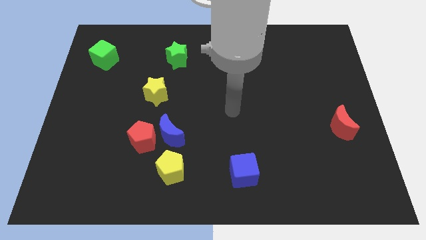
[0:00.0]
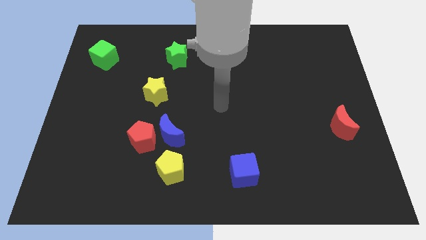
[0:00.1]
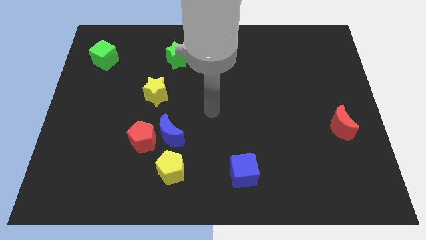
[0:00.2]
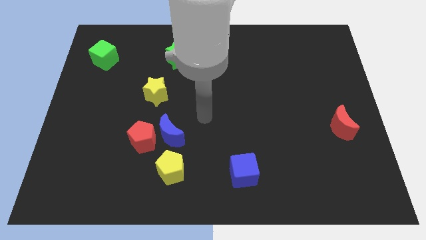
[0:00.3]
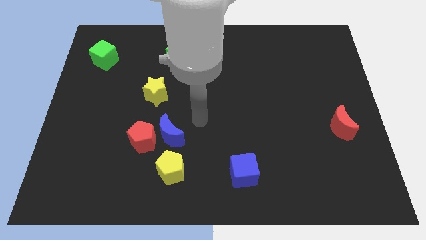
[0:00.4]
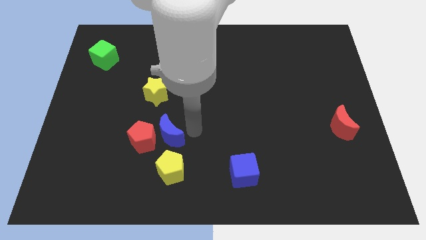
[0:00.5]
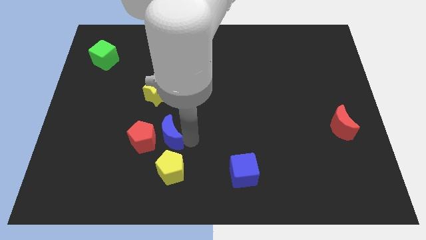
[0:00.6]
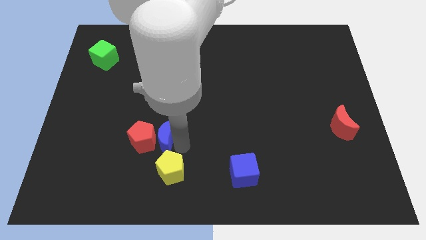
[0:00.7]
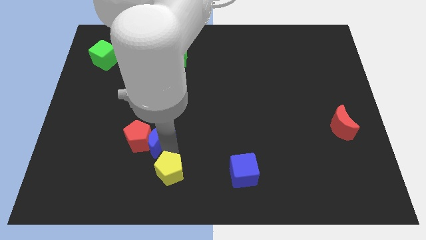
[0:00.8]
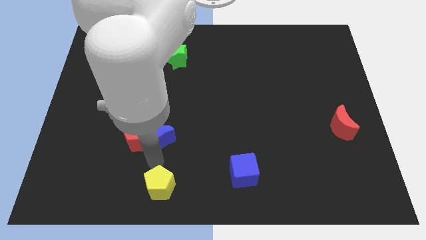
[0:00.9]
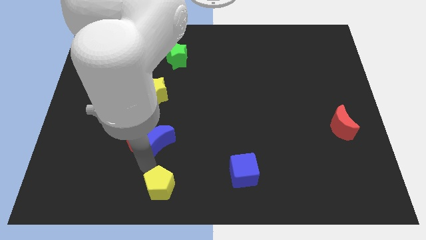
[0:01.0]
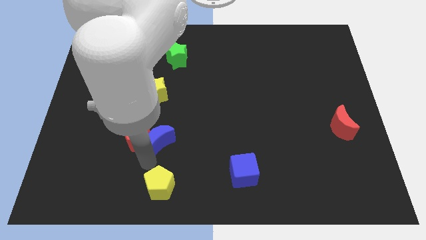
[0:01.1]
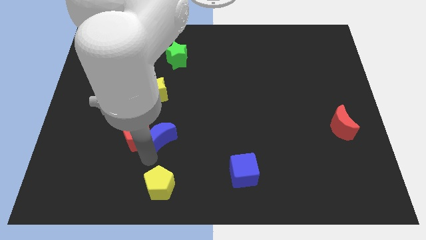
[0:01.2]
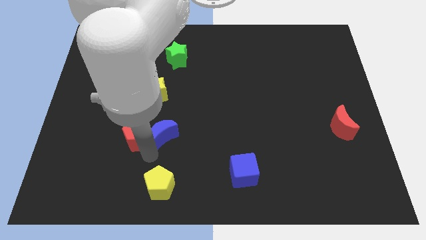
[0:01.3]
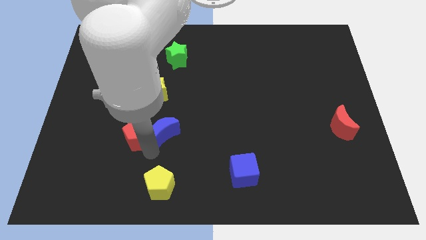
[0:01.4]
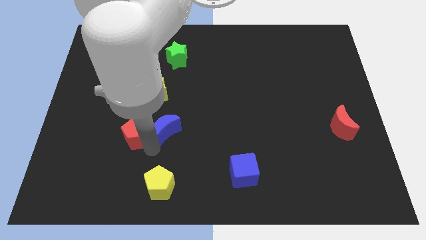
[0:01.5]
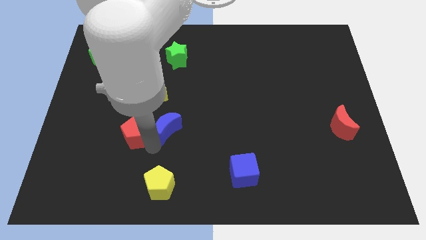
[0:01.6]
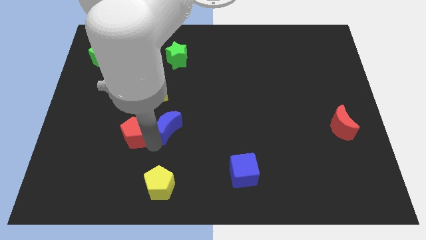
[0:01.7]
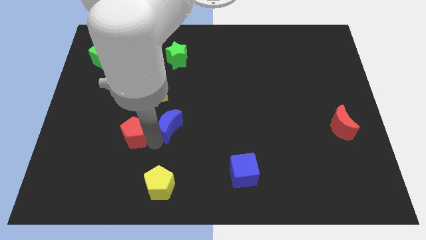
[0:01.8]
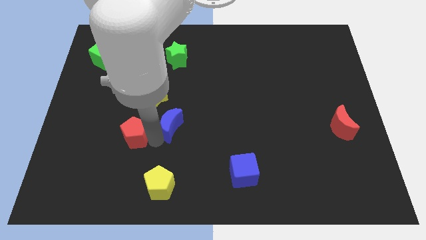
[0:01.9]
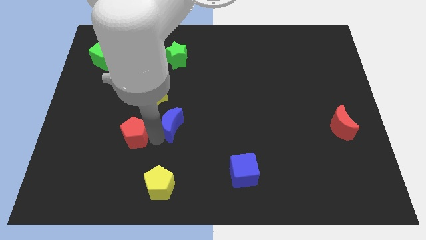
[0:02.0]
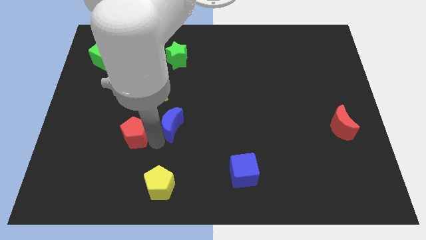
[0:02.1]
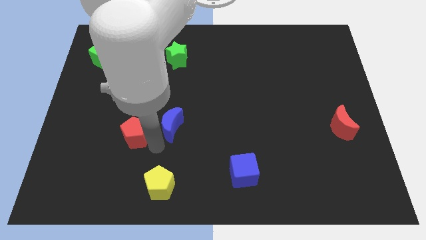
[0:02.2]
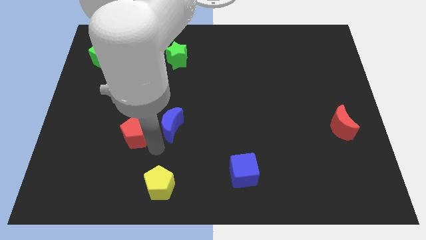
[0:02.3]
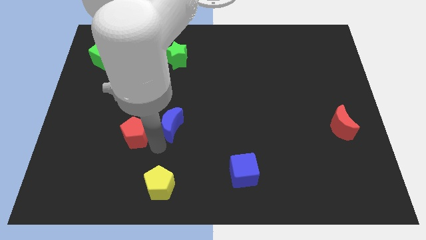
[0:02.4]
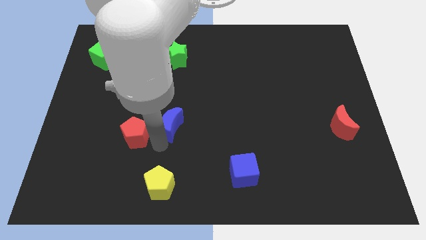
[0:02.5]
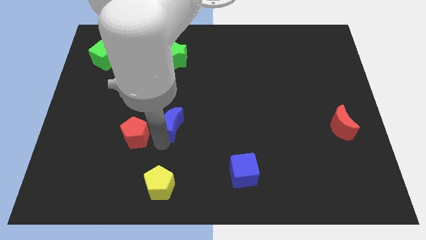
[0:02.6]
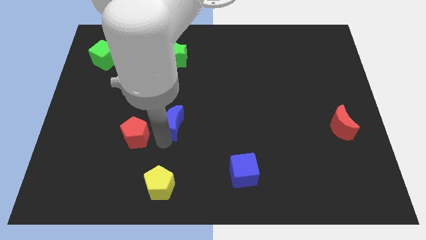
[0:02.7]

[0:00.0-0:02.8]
move the blue moon away from the red pentagon and yellow pentagon

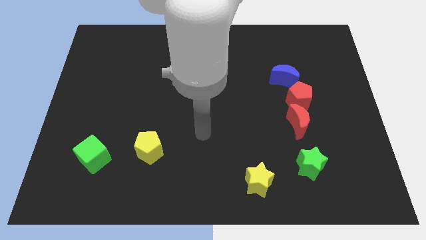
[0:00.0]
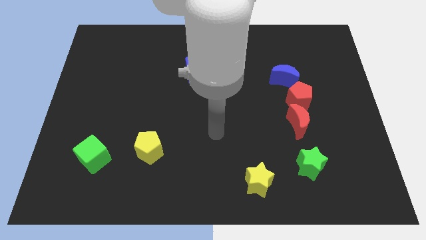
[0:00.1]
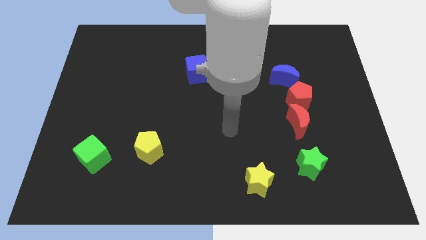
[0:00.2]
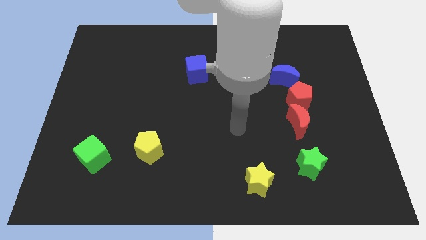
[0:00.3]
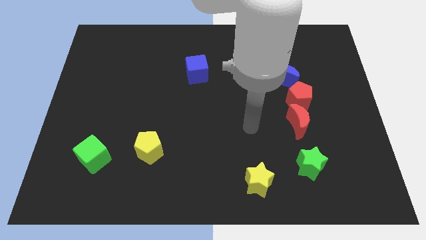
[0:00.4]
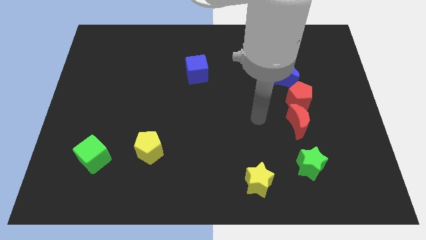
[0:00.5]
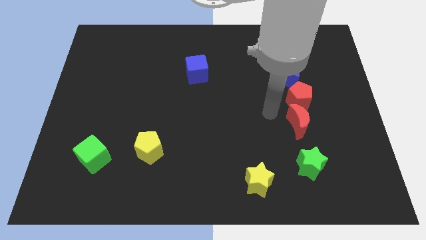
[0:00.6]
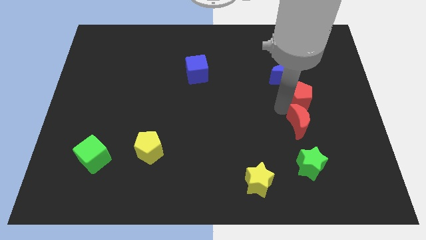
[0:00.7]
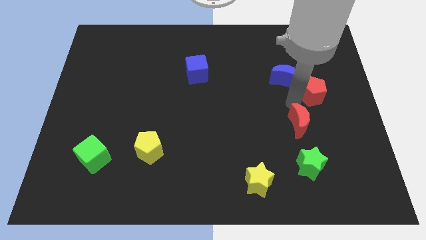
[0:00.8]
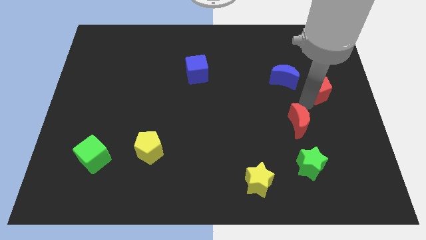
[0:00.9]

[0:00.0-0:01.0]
pull the red moon apart from the red pentagon

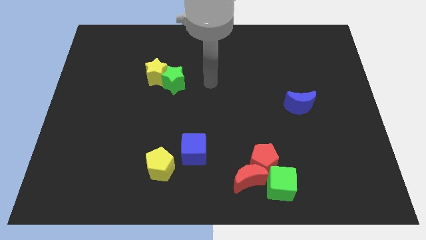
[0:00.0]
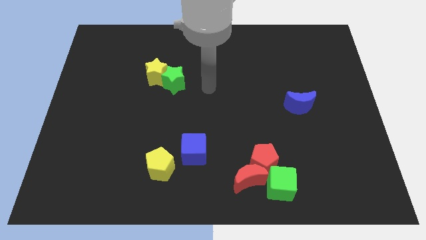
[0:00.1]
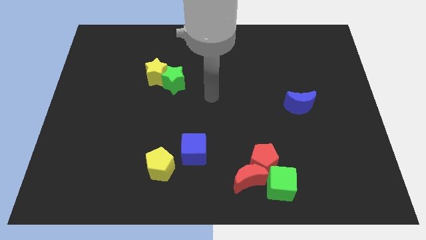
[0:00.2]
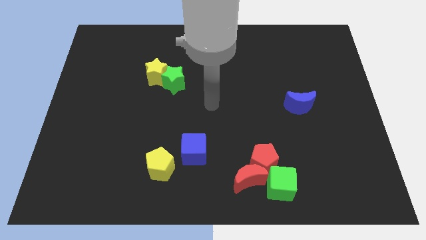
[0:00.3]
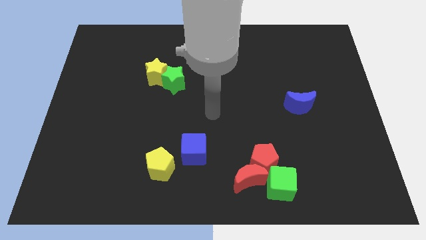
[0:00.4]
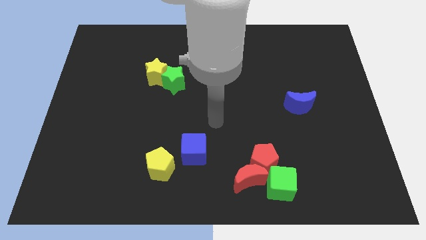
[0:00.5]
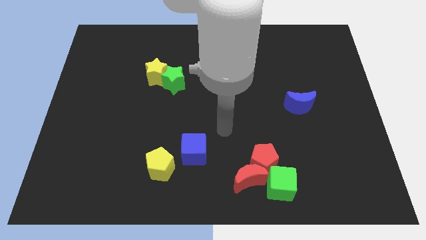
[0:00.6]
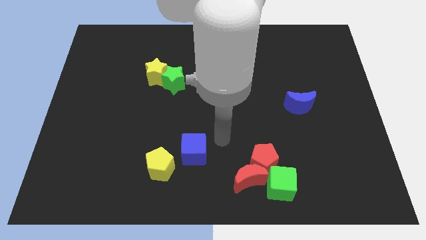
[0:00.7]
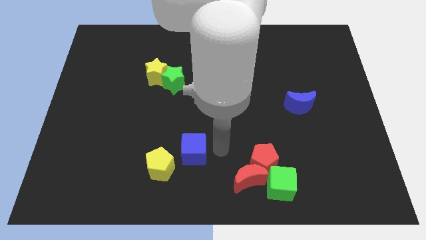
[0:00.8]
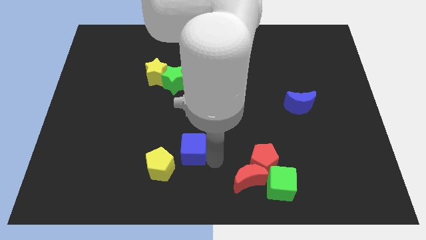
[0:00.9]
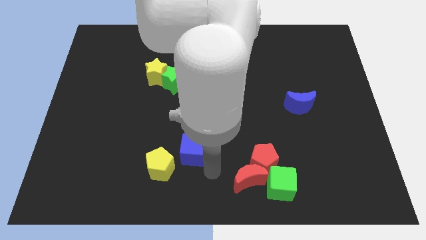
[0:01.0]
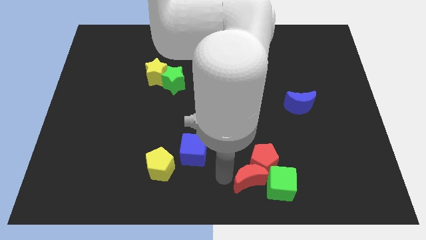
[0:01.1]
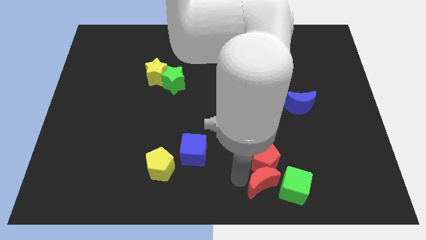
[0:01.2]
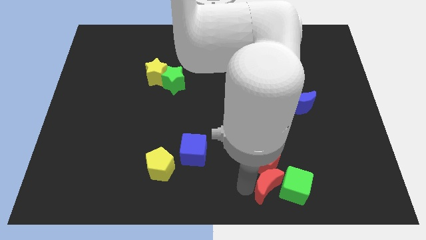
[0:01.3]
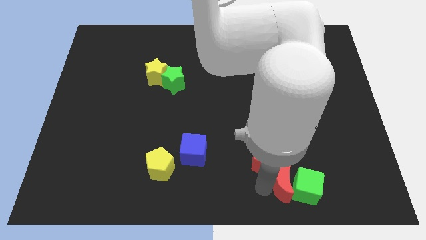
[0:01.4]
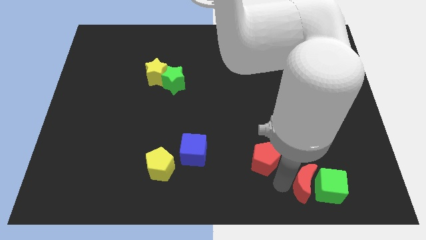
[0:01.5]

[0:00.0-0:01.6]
move the red pentagon away from the red moon and green cube

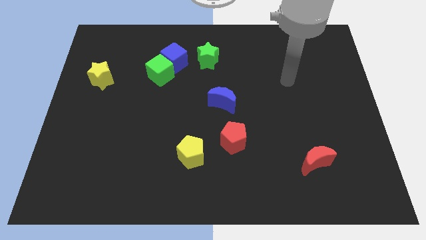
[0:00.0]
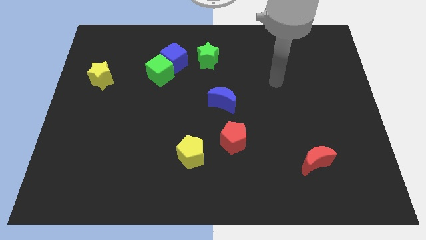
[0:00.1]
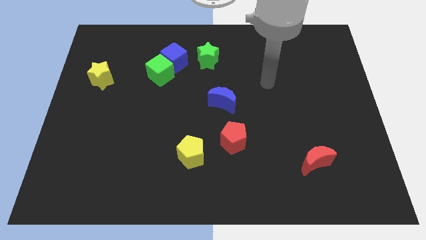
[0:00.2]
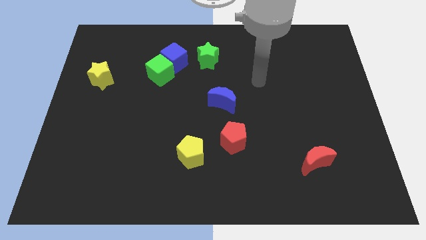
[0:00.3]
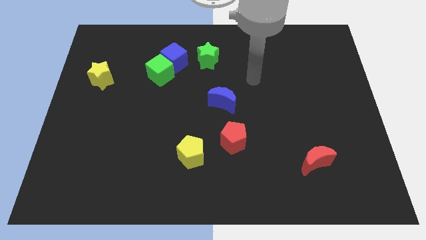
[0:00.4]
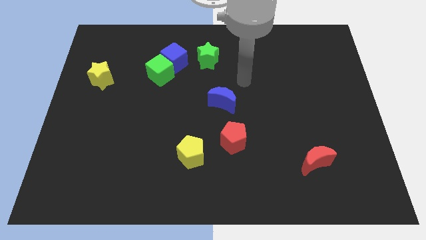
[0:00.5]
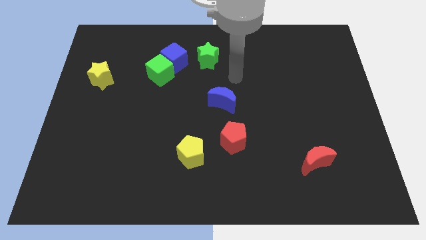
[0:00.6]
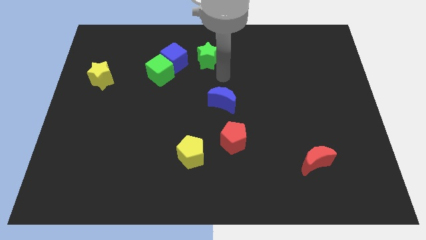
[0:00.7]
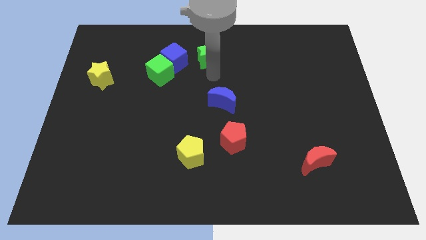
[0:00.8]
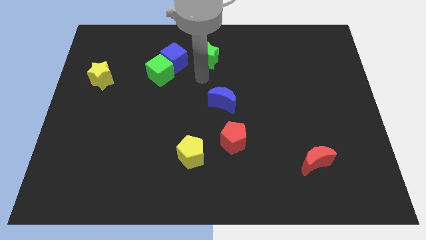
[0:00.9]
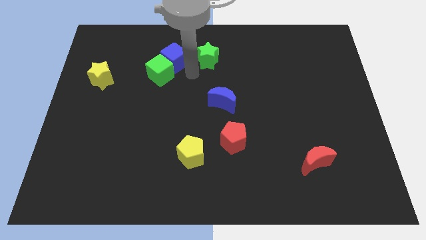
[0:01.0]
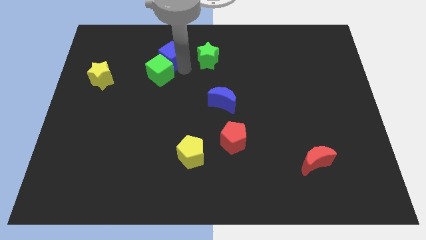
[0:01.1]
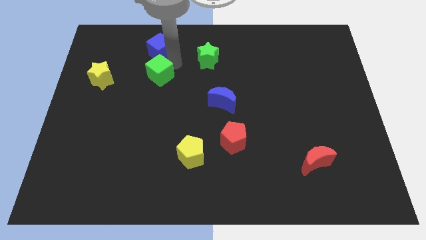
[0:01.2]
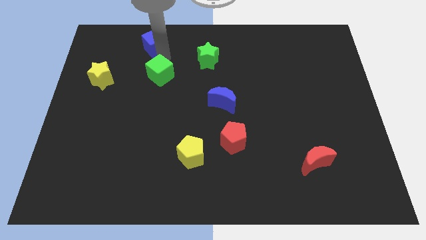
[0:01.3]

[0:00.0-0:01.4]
pull the green cube apart from the blue cube

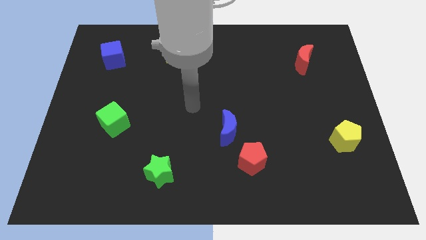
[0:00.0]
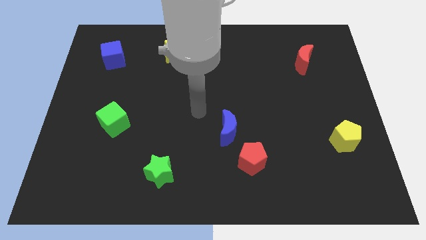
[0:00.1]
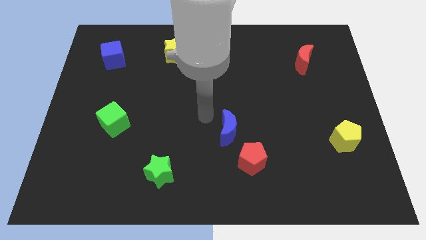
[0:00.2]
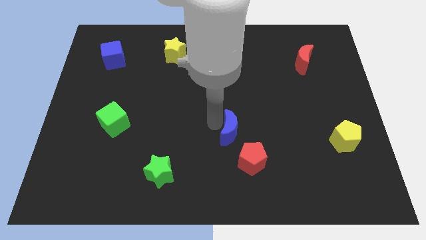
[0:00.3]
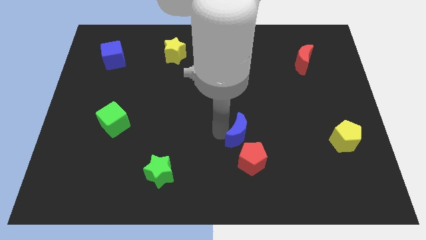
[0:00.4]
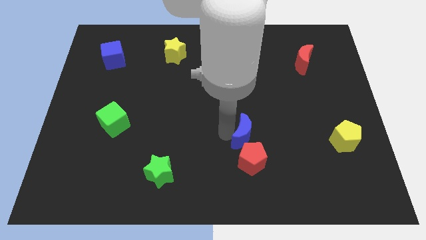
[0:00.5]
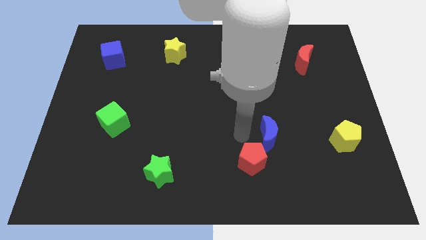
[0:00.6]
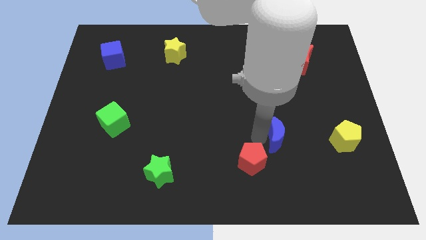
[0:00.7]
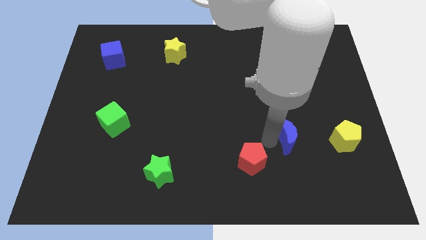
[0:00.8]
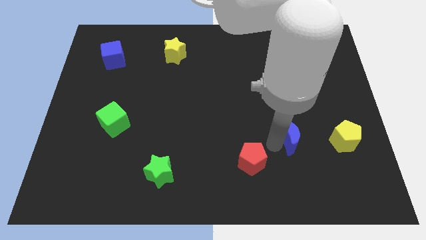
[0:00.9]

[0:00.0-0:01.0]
pull the red pentagon apart from the blue moon

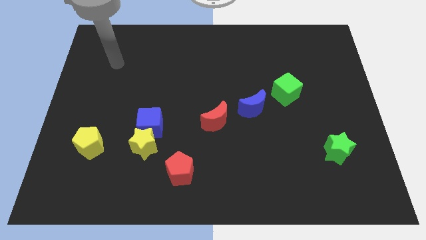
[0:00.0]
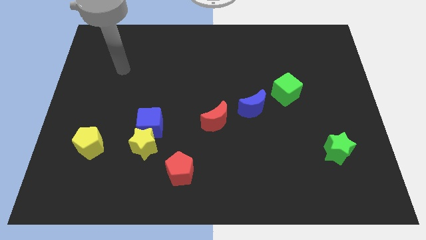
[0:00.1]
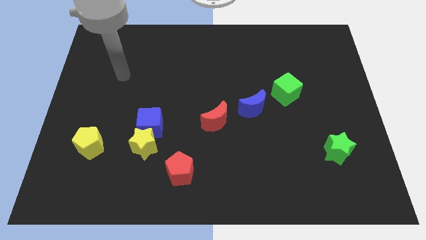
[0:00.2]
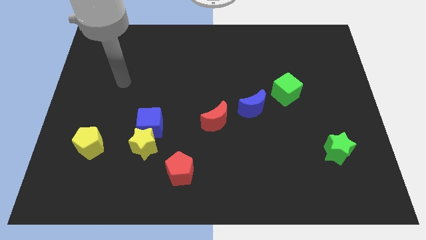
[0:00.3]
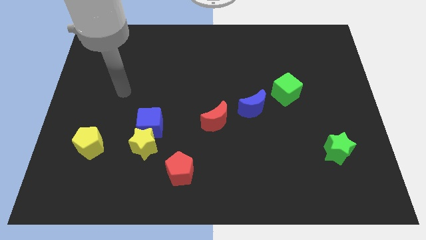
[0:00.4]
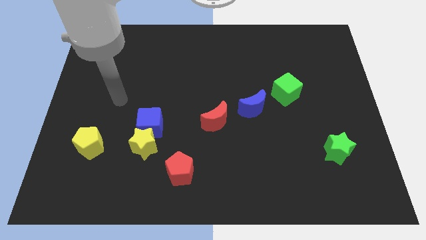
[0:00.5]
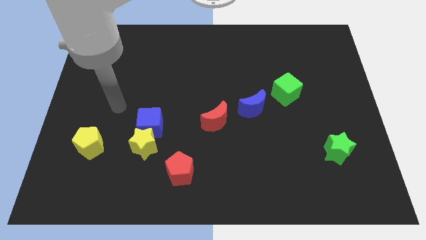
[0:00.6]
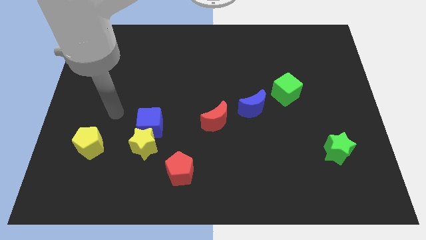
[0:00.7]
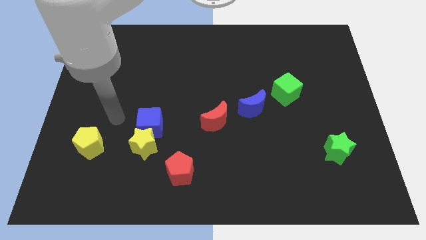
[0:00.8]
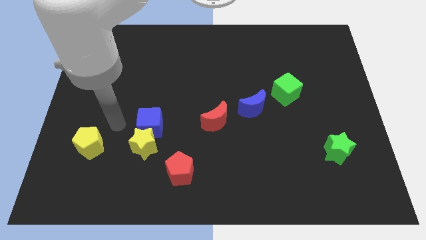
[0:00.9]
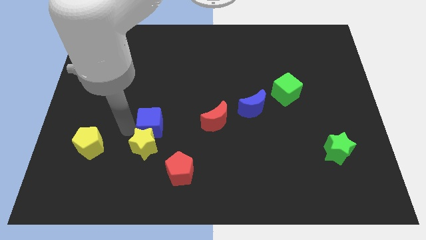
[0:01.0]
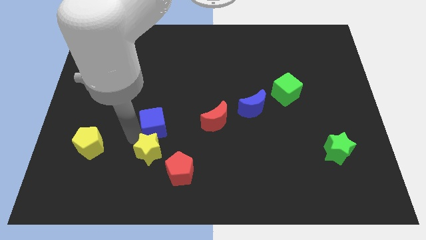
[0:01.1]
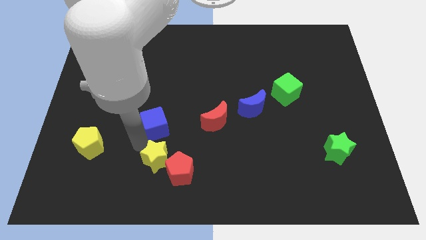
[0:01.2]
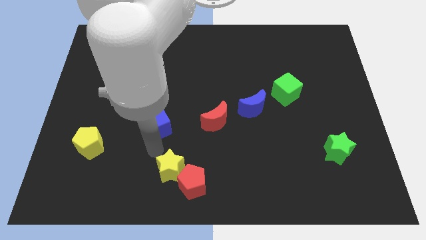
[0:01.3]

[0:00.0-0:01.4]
move the blue cube away from the yellow star
